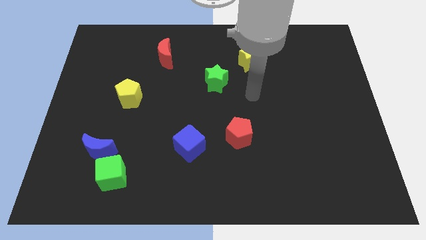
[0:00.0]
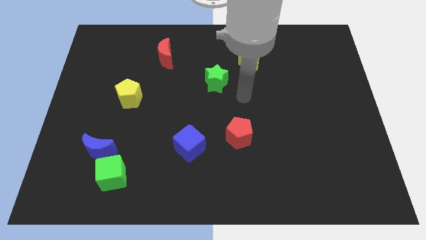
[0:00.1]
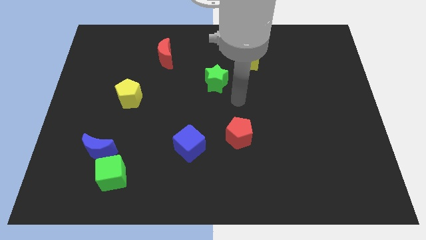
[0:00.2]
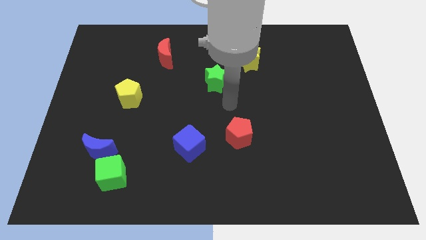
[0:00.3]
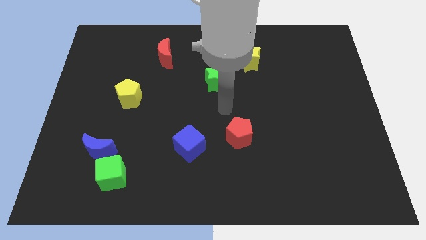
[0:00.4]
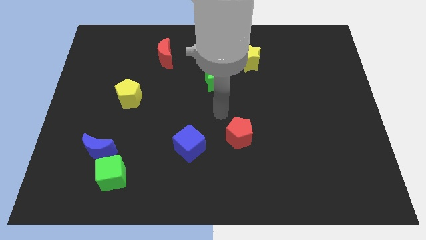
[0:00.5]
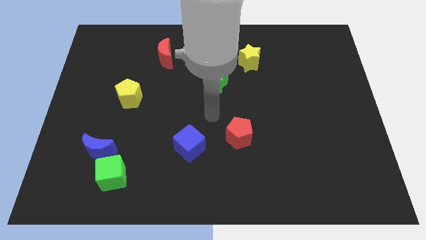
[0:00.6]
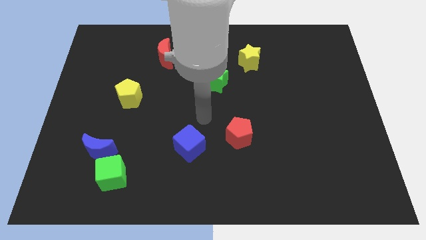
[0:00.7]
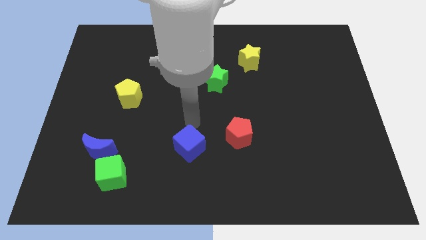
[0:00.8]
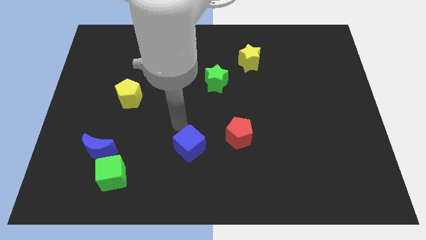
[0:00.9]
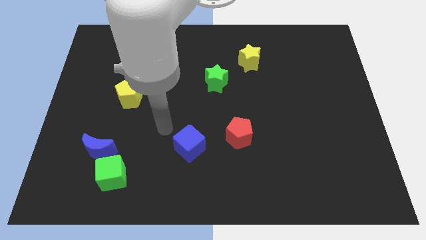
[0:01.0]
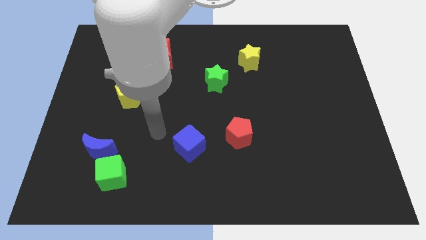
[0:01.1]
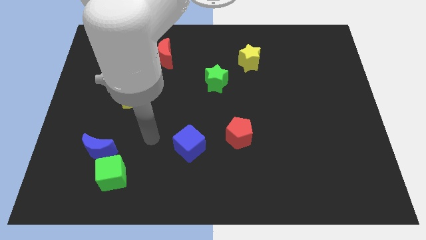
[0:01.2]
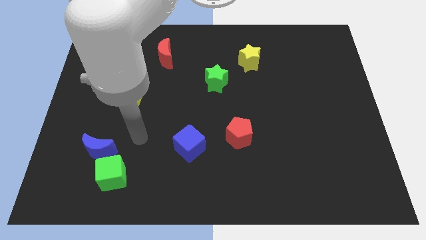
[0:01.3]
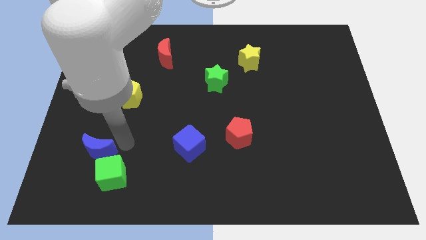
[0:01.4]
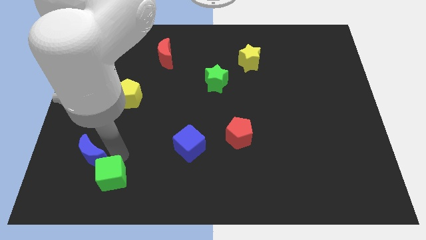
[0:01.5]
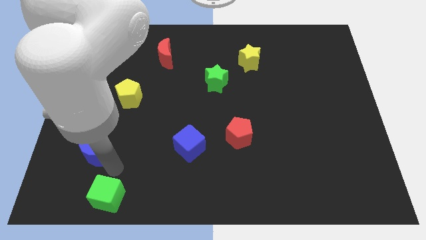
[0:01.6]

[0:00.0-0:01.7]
move the blue moon away from the green cube

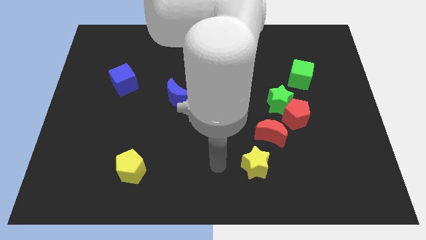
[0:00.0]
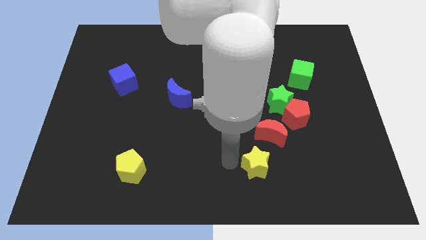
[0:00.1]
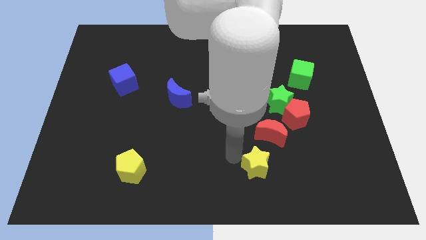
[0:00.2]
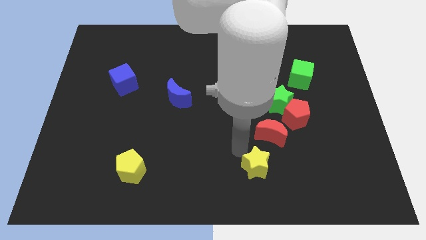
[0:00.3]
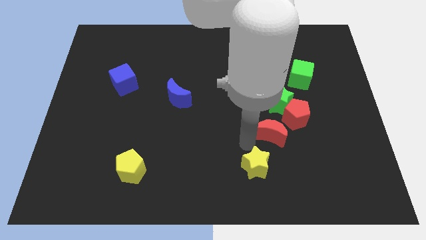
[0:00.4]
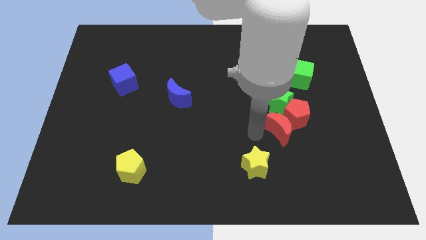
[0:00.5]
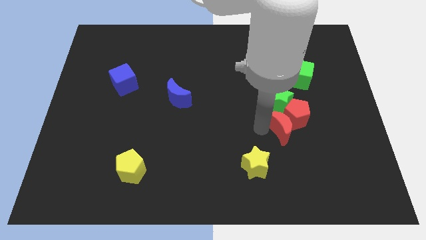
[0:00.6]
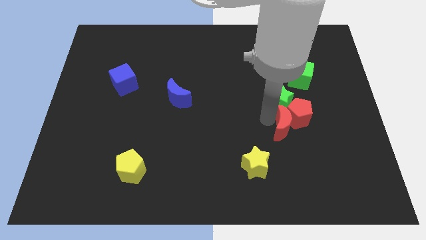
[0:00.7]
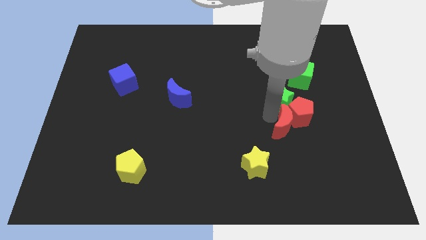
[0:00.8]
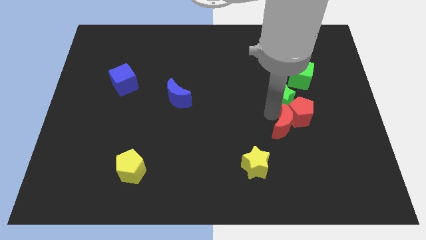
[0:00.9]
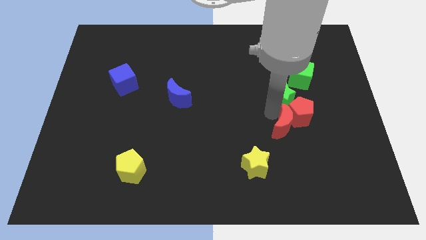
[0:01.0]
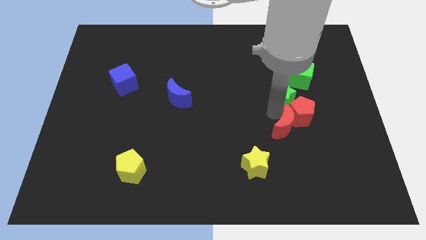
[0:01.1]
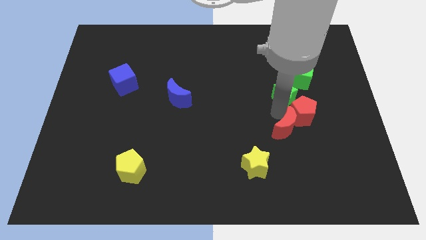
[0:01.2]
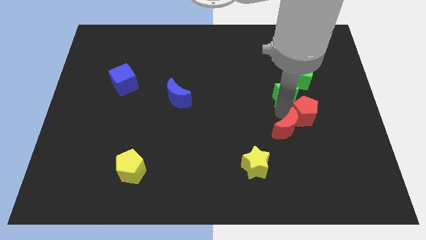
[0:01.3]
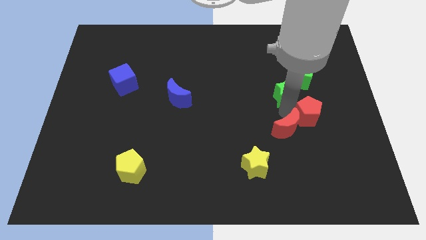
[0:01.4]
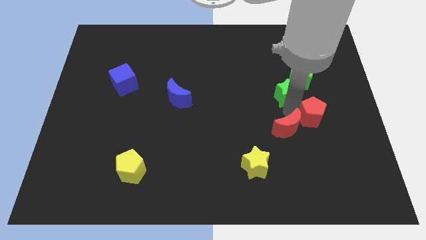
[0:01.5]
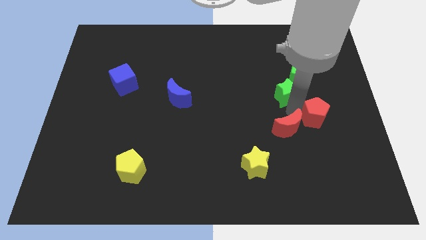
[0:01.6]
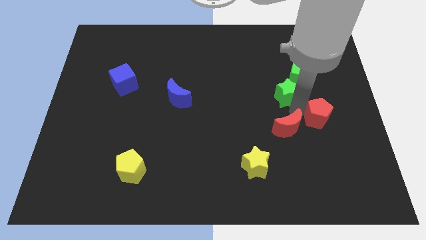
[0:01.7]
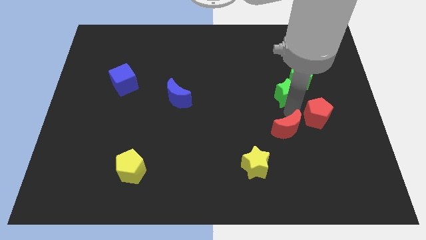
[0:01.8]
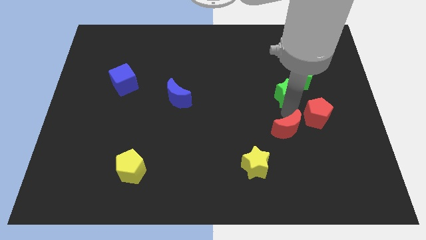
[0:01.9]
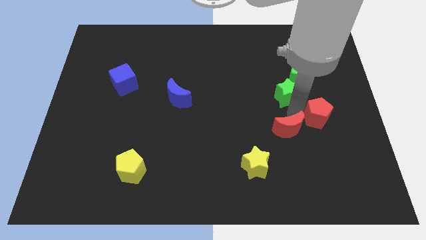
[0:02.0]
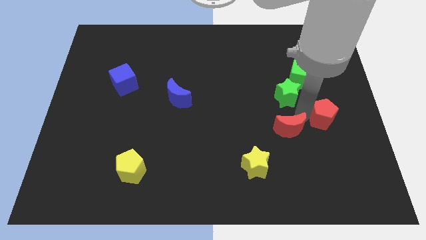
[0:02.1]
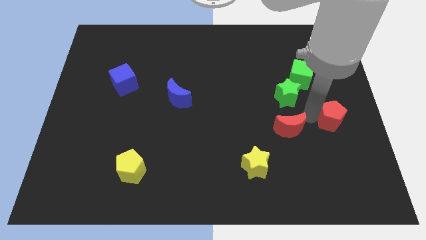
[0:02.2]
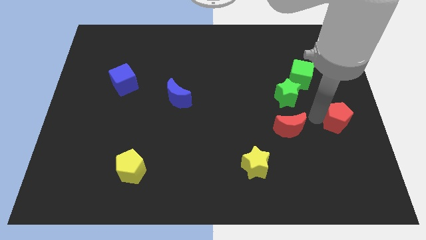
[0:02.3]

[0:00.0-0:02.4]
move the red pentagon away from the green star and red moon

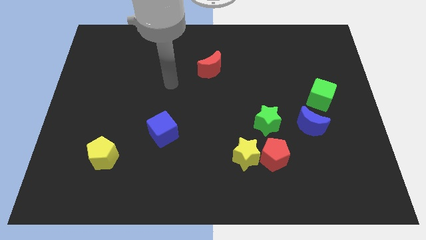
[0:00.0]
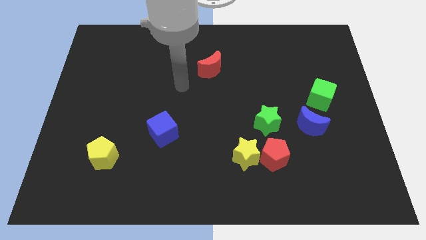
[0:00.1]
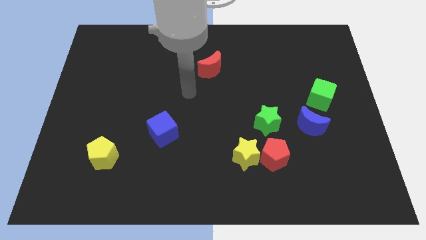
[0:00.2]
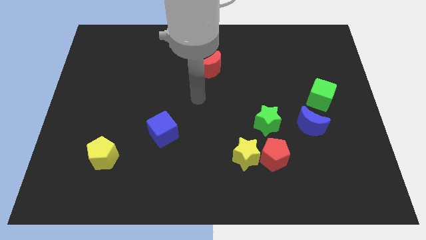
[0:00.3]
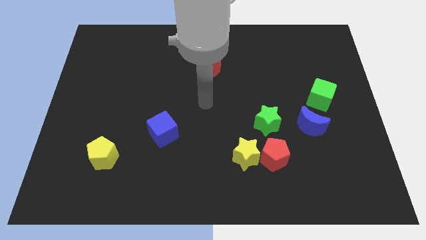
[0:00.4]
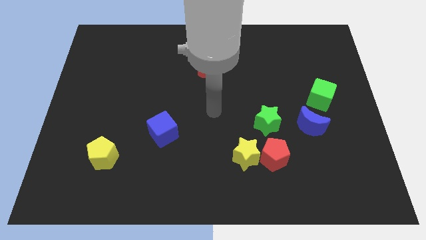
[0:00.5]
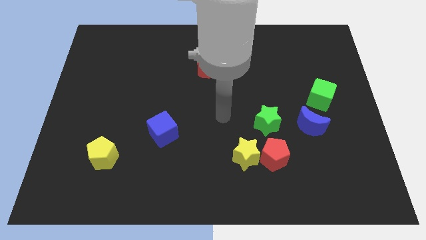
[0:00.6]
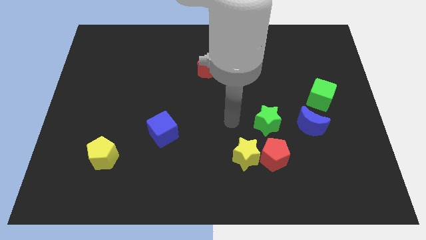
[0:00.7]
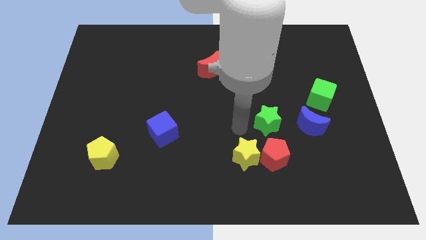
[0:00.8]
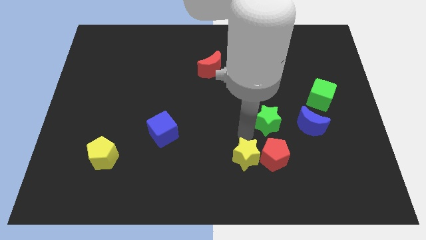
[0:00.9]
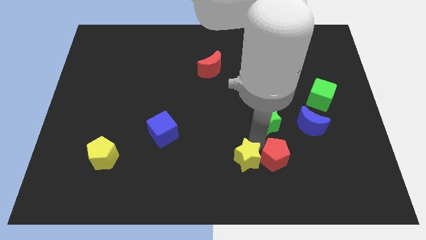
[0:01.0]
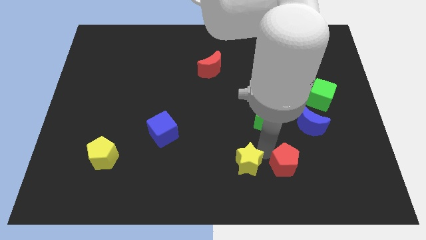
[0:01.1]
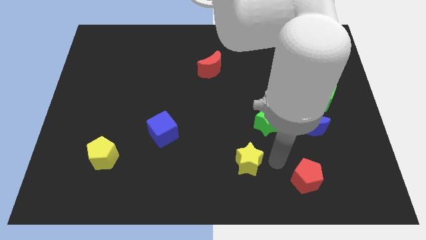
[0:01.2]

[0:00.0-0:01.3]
move the yellow star away from the red pentagon

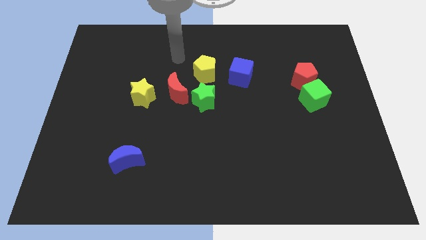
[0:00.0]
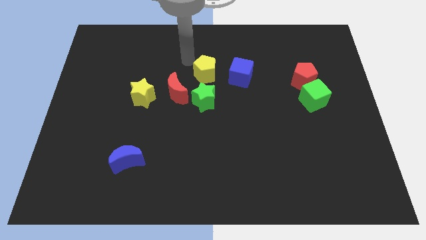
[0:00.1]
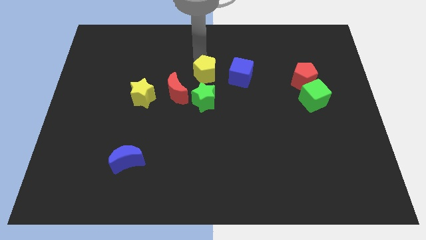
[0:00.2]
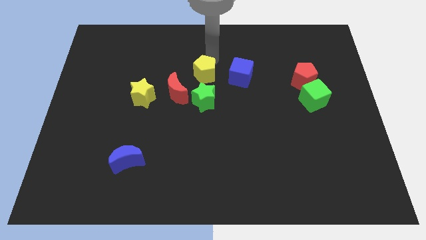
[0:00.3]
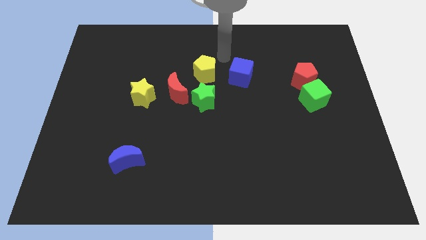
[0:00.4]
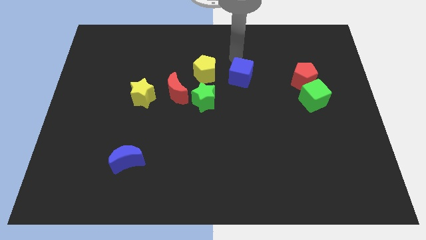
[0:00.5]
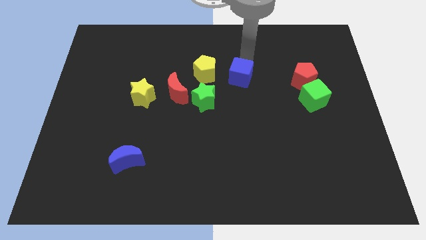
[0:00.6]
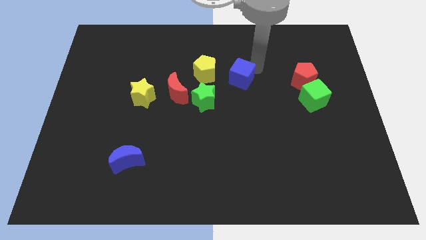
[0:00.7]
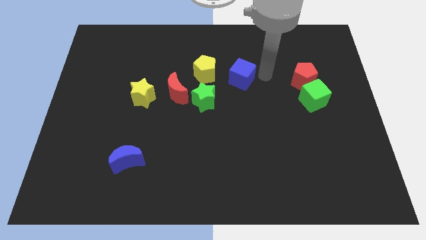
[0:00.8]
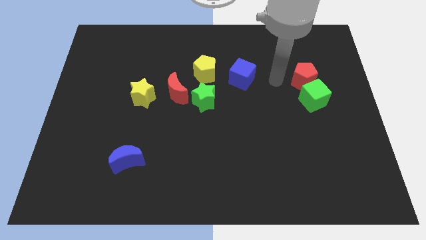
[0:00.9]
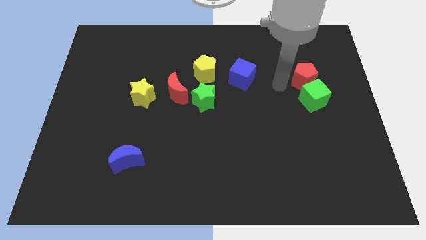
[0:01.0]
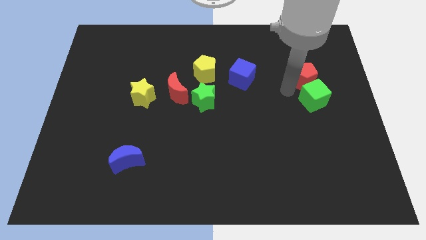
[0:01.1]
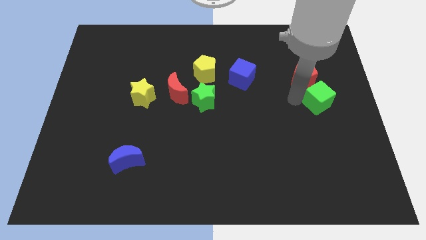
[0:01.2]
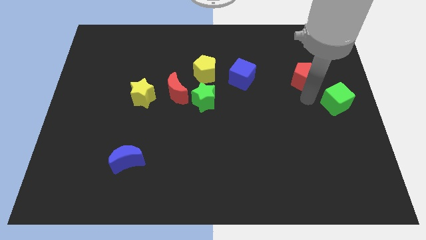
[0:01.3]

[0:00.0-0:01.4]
pull the red pentagon apart from the green cube

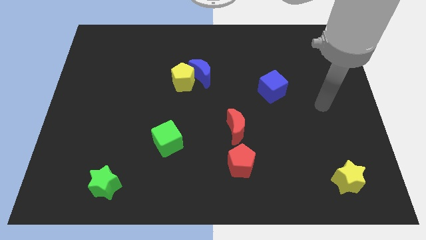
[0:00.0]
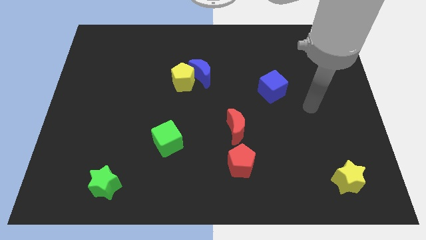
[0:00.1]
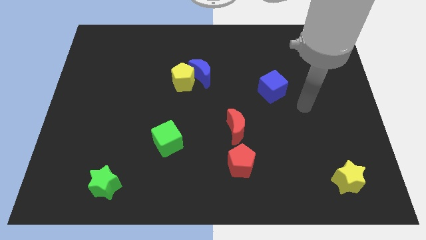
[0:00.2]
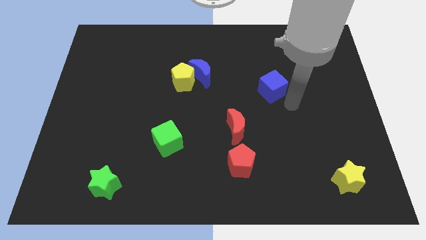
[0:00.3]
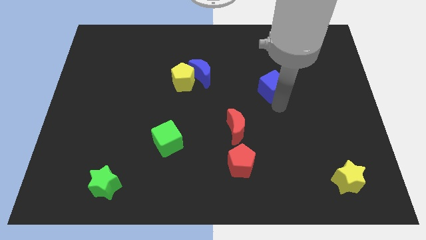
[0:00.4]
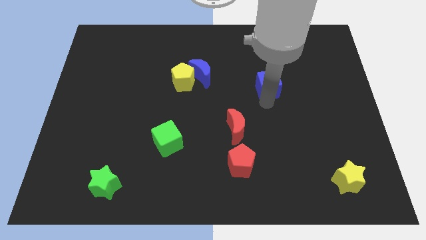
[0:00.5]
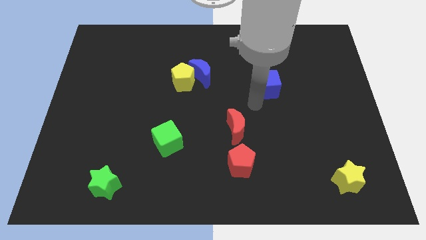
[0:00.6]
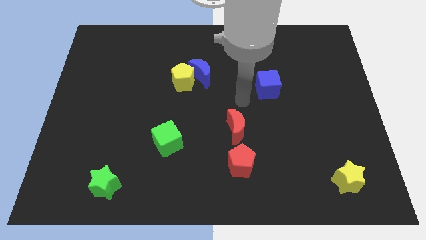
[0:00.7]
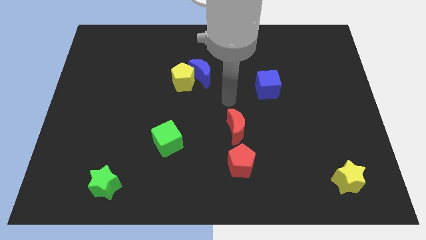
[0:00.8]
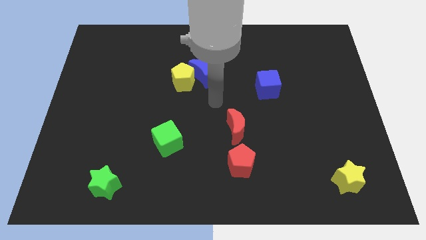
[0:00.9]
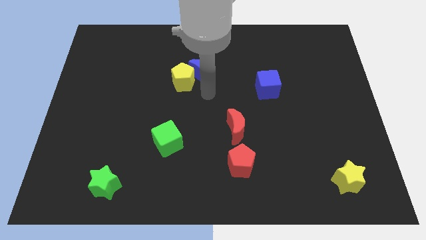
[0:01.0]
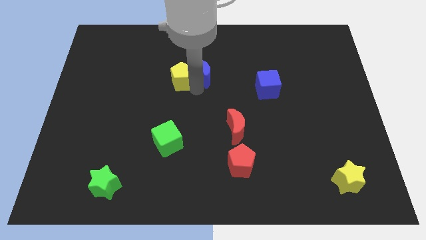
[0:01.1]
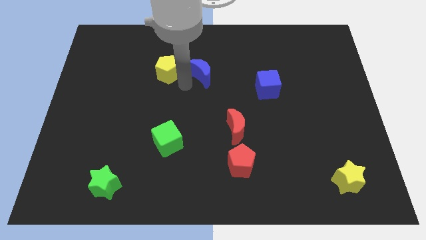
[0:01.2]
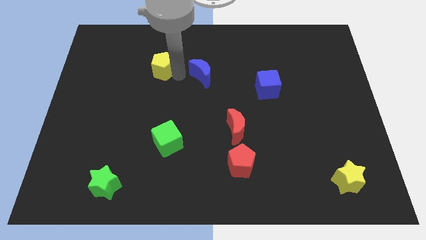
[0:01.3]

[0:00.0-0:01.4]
separate the blue moon from the yellow pentagon

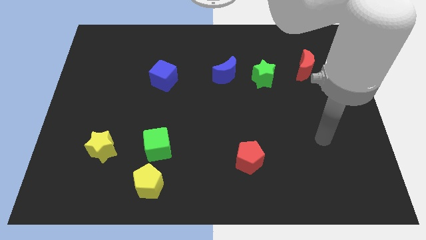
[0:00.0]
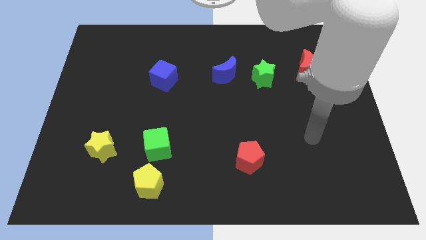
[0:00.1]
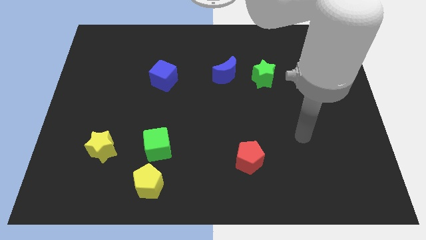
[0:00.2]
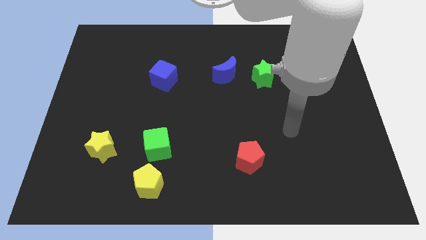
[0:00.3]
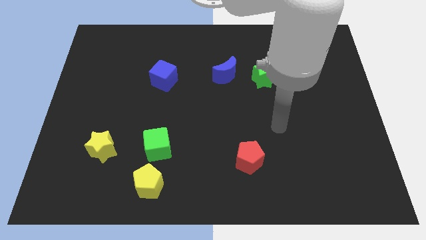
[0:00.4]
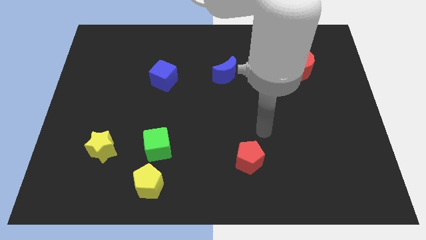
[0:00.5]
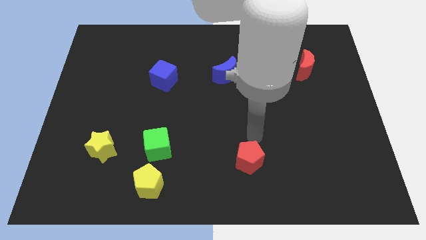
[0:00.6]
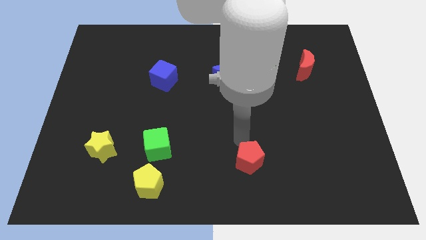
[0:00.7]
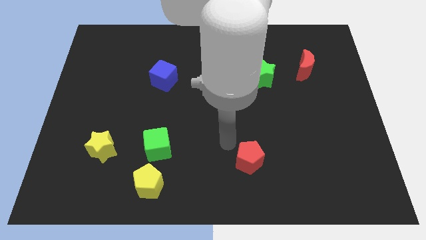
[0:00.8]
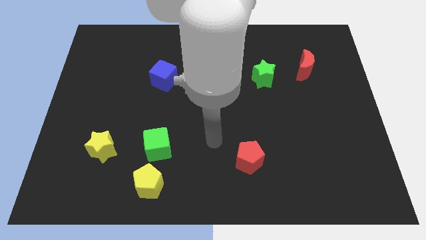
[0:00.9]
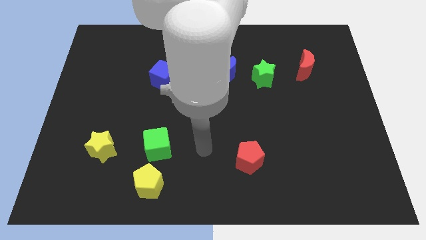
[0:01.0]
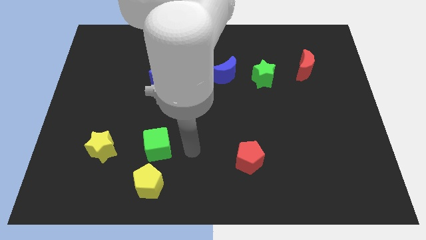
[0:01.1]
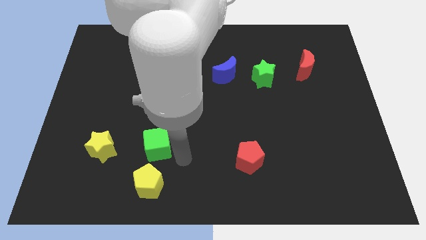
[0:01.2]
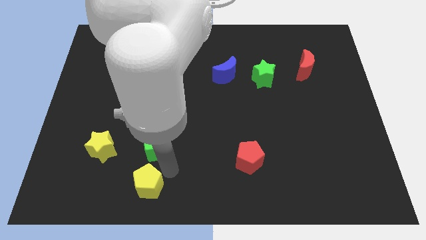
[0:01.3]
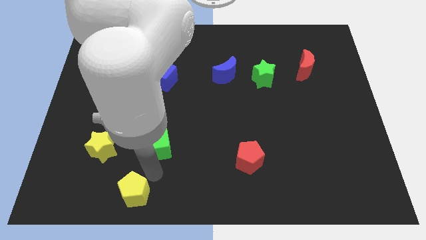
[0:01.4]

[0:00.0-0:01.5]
pull the green cube apart from the yellow pentagon
